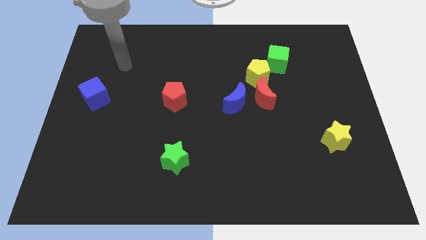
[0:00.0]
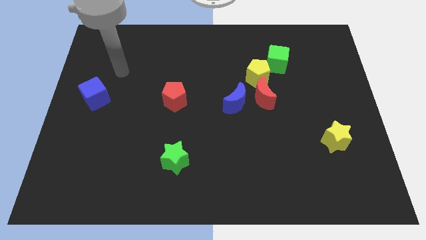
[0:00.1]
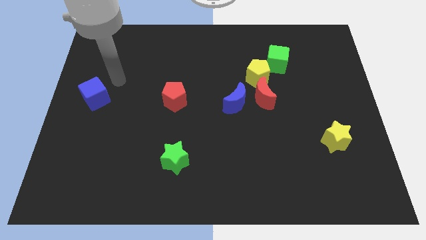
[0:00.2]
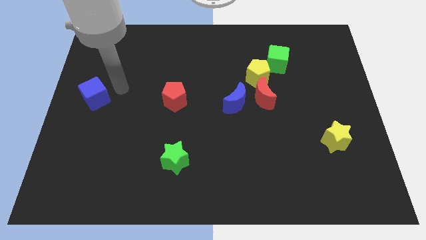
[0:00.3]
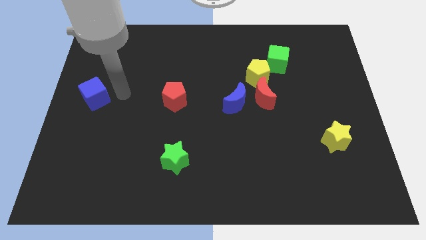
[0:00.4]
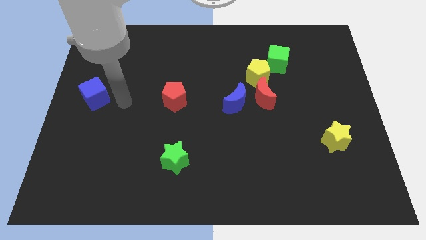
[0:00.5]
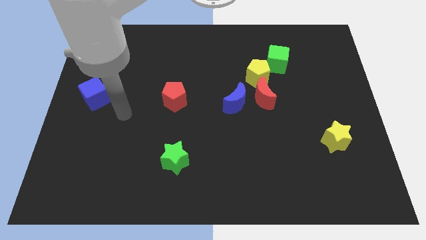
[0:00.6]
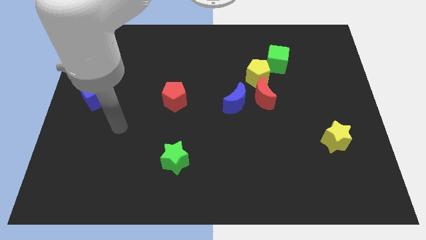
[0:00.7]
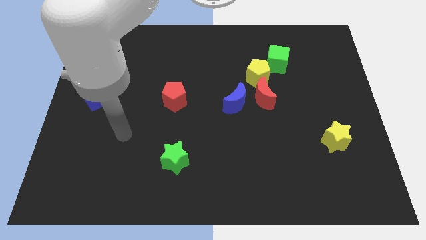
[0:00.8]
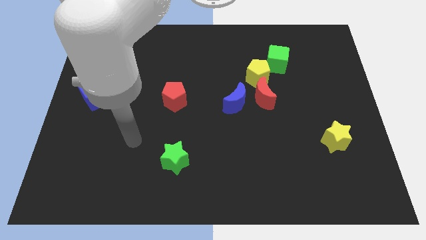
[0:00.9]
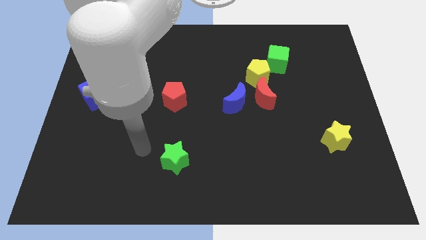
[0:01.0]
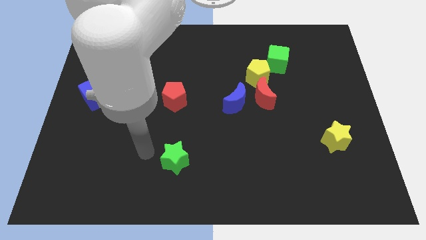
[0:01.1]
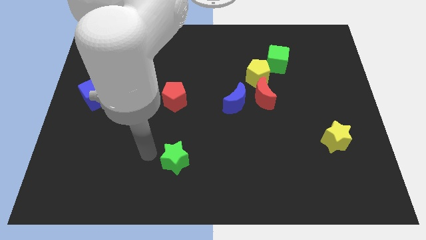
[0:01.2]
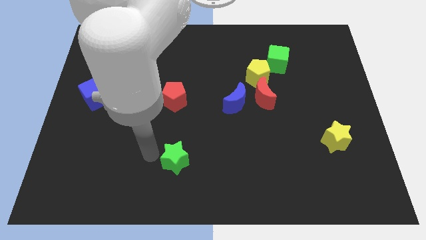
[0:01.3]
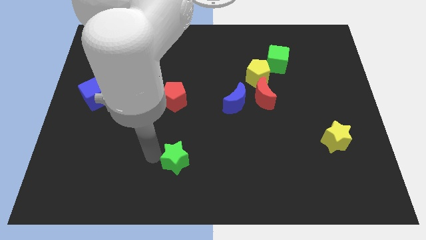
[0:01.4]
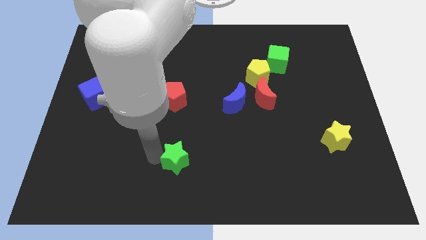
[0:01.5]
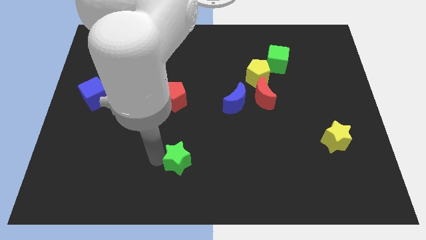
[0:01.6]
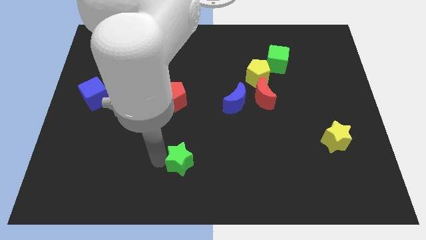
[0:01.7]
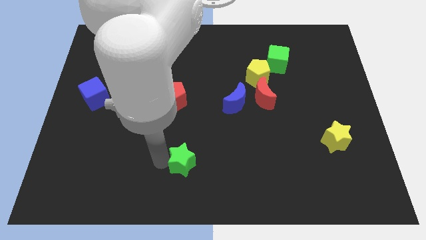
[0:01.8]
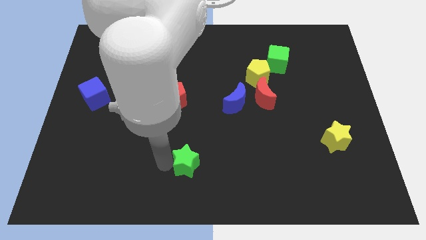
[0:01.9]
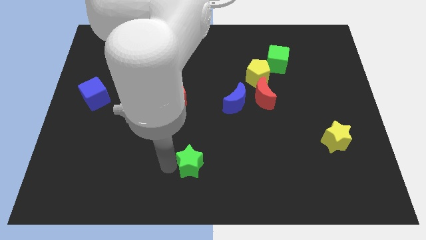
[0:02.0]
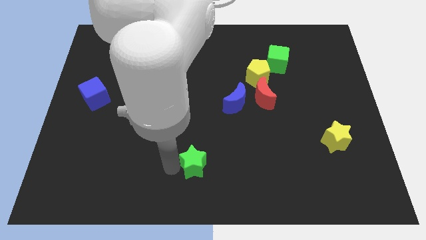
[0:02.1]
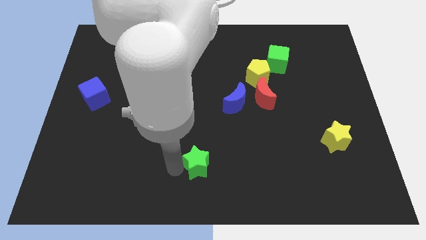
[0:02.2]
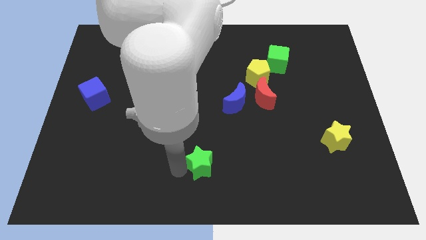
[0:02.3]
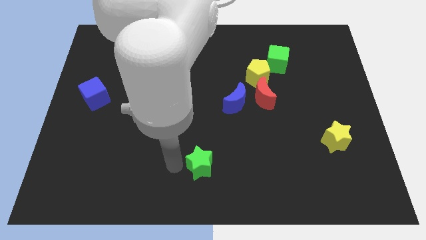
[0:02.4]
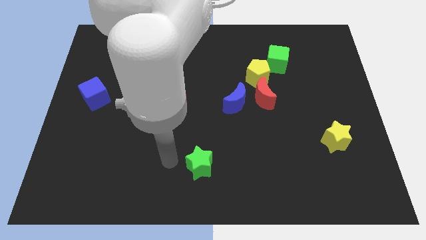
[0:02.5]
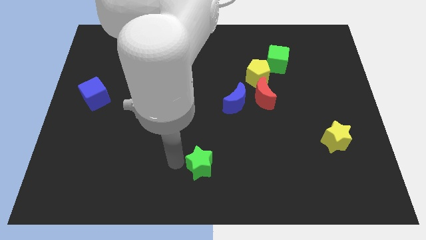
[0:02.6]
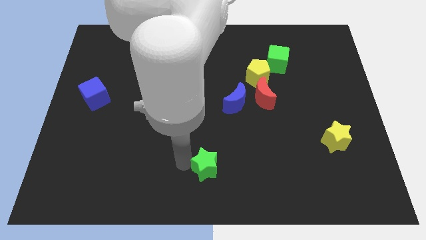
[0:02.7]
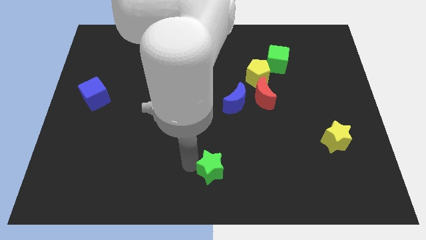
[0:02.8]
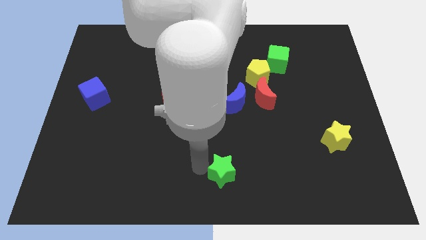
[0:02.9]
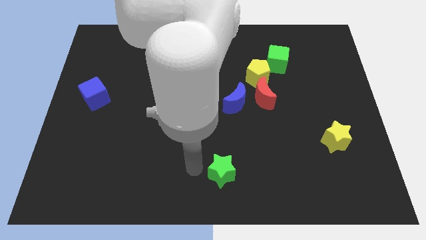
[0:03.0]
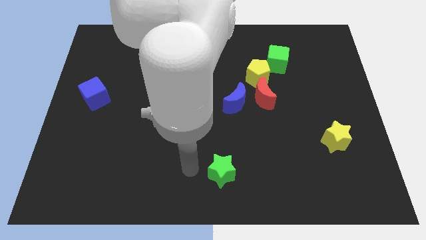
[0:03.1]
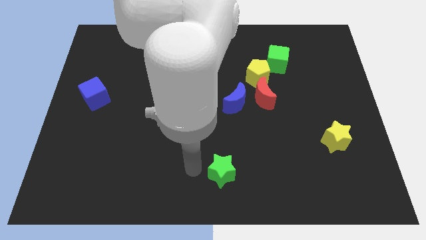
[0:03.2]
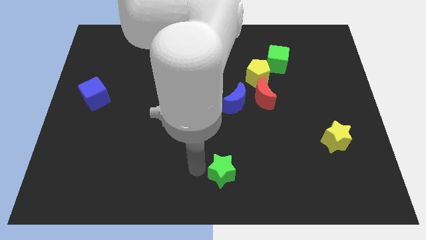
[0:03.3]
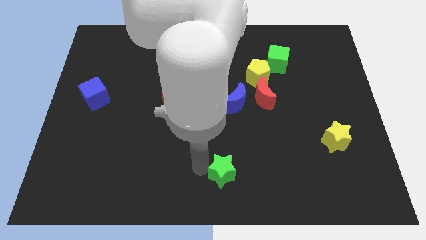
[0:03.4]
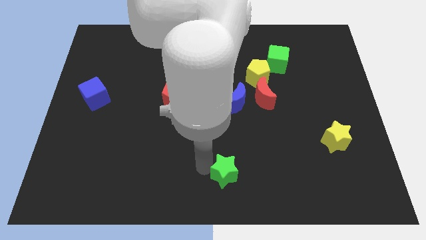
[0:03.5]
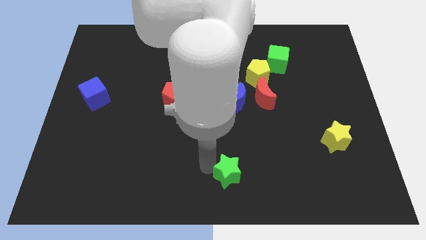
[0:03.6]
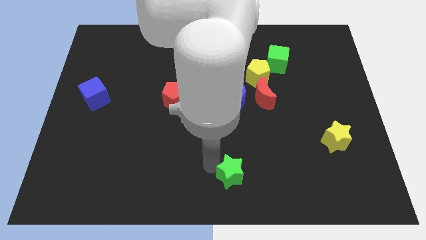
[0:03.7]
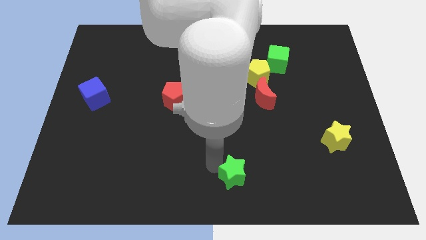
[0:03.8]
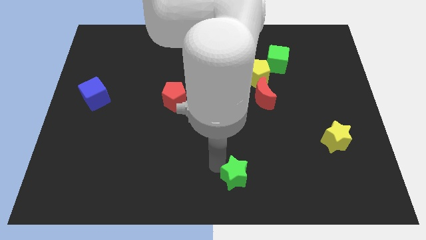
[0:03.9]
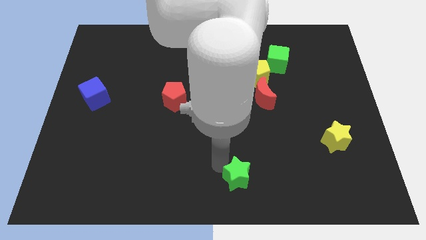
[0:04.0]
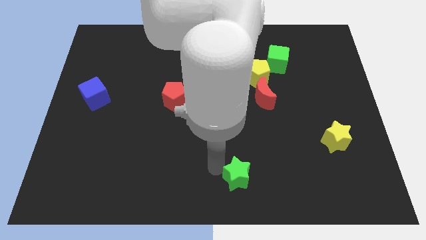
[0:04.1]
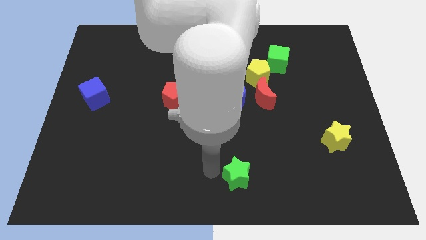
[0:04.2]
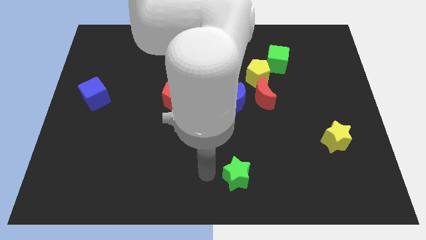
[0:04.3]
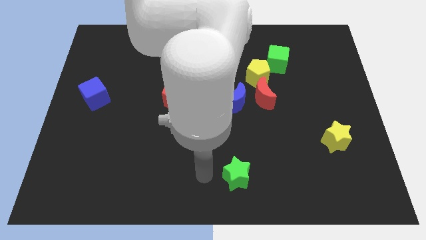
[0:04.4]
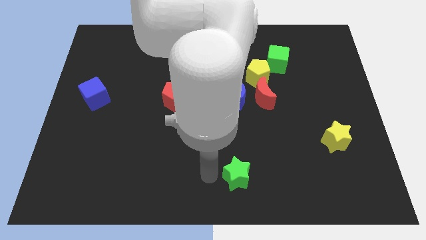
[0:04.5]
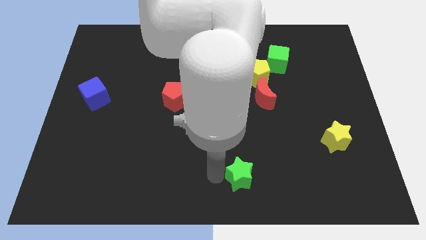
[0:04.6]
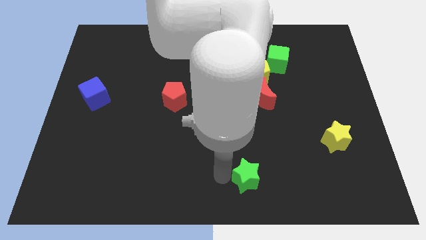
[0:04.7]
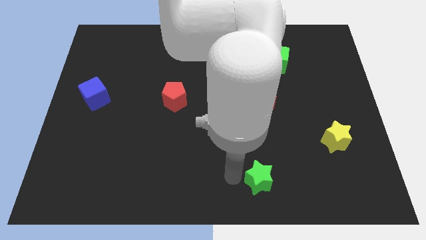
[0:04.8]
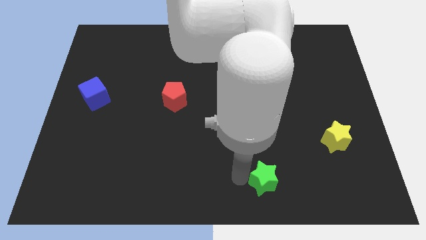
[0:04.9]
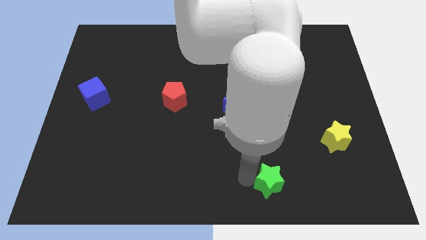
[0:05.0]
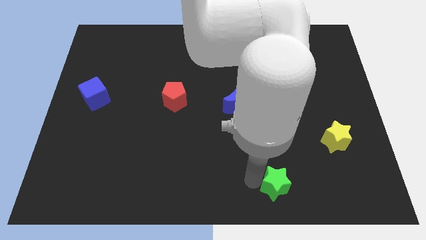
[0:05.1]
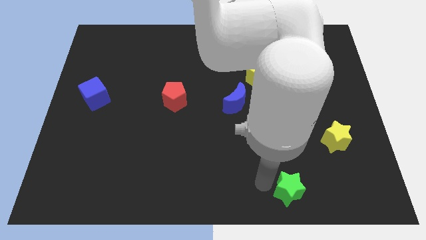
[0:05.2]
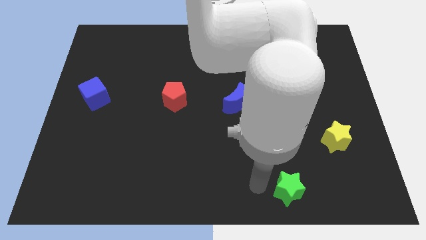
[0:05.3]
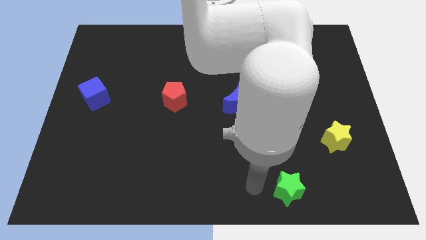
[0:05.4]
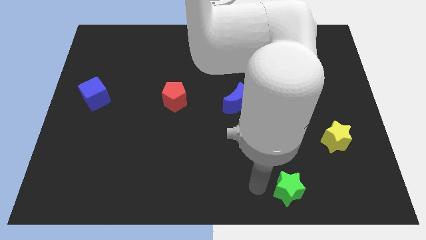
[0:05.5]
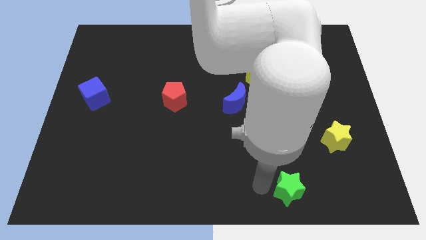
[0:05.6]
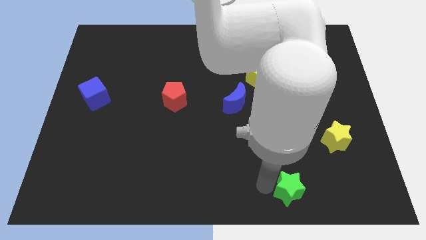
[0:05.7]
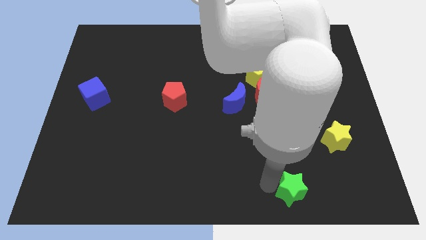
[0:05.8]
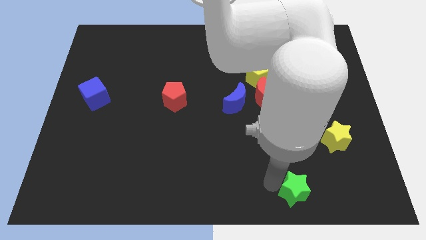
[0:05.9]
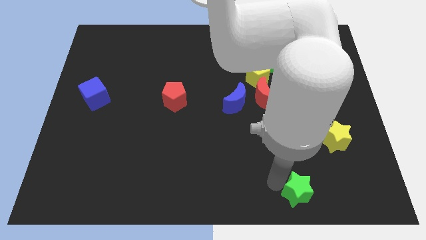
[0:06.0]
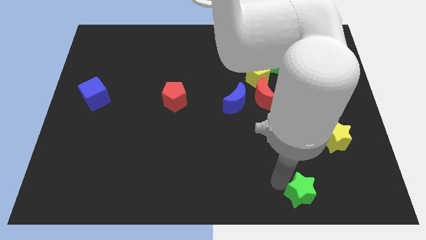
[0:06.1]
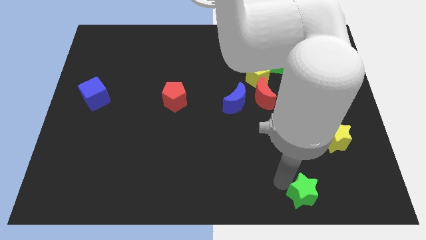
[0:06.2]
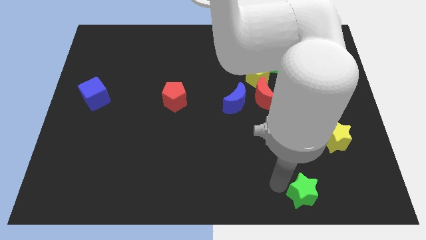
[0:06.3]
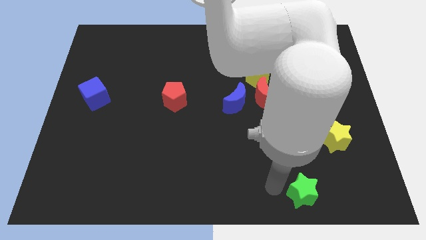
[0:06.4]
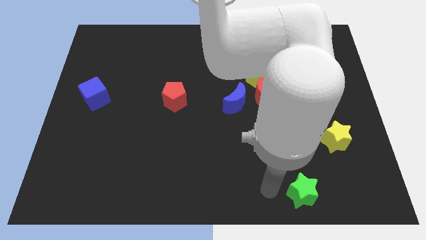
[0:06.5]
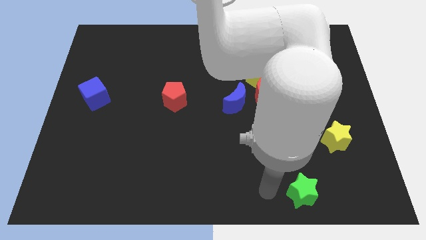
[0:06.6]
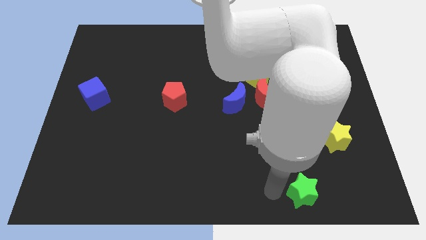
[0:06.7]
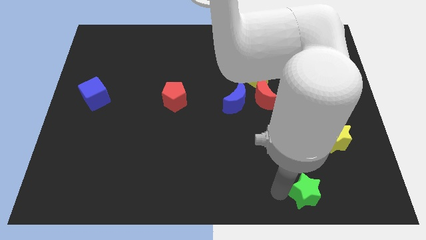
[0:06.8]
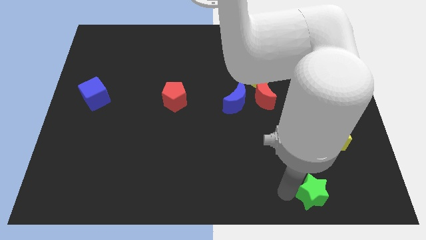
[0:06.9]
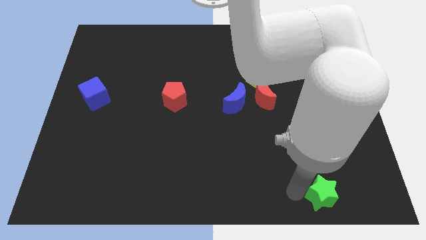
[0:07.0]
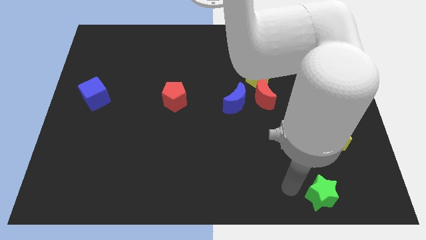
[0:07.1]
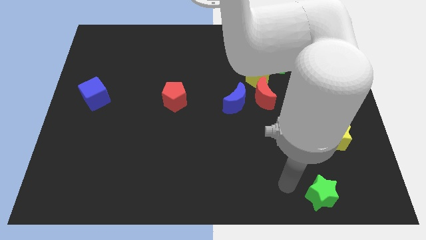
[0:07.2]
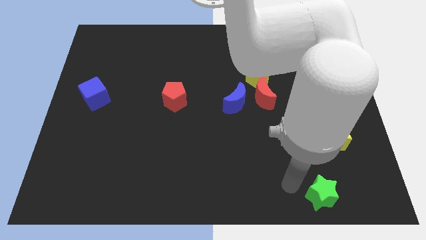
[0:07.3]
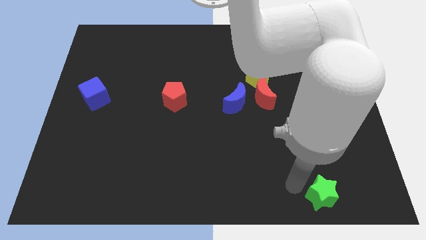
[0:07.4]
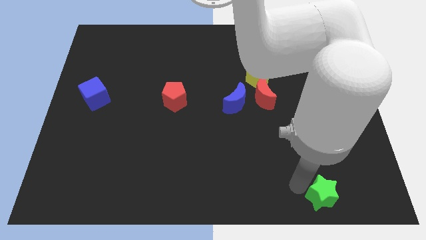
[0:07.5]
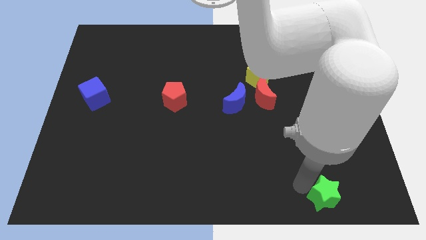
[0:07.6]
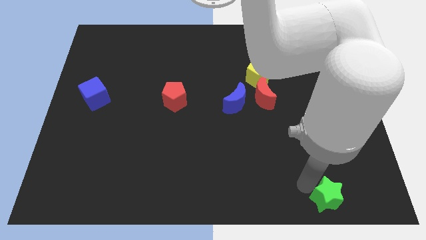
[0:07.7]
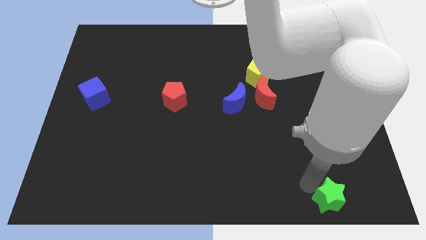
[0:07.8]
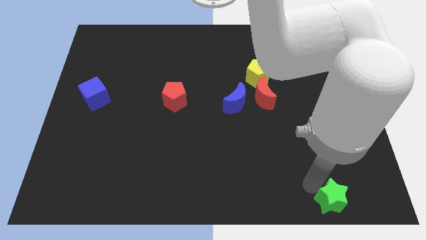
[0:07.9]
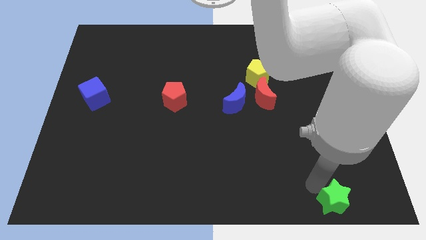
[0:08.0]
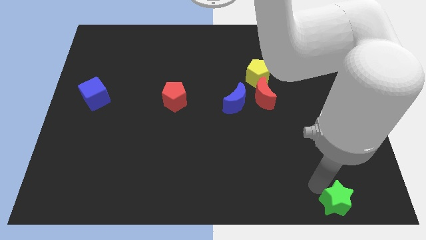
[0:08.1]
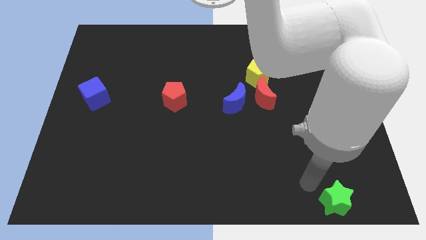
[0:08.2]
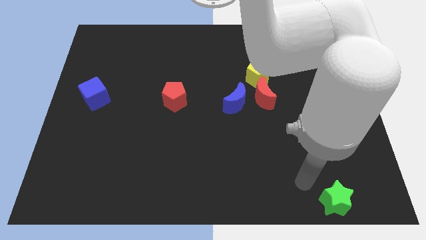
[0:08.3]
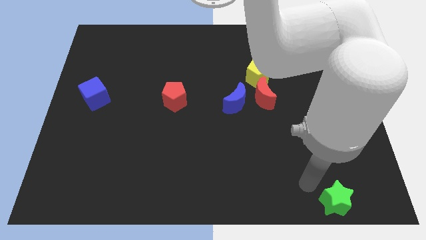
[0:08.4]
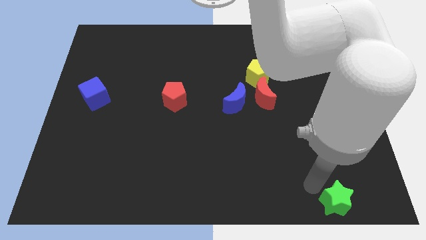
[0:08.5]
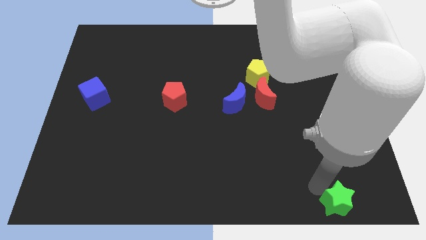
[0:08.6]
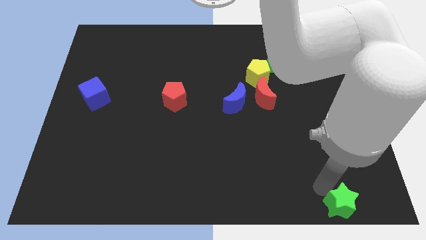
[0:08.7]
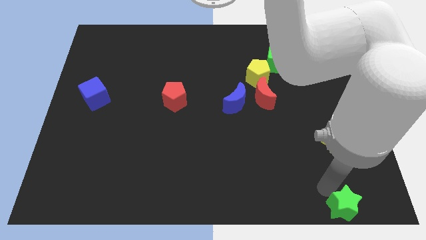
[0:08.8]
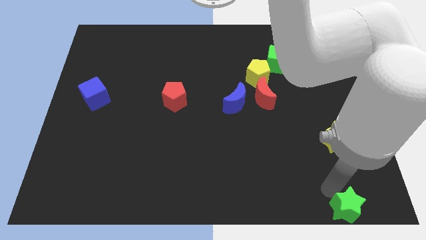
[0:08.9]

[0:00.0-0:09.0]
move the green star to the bottom right
